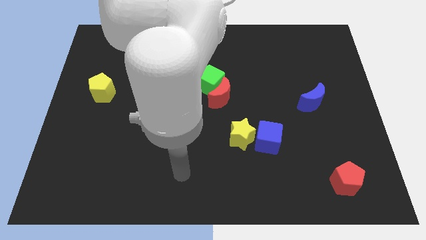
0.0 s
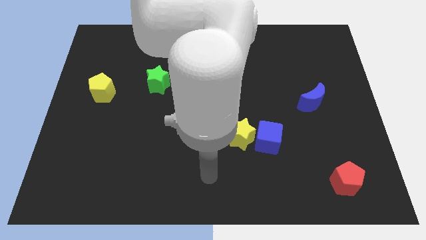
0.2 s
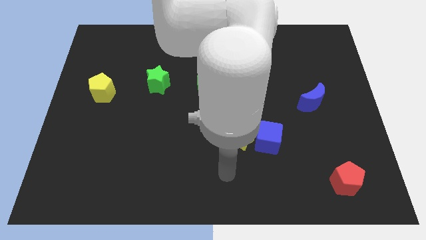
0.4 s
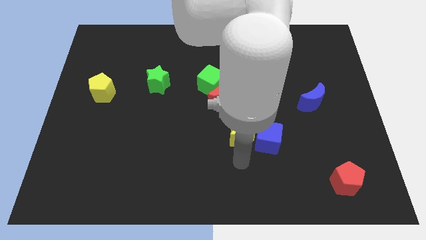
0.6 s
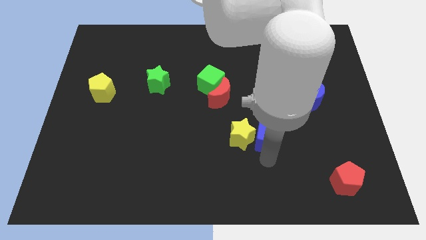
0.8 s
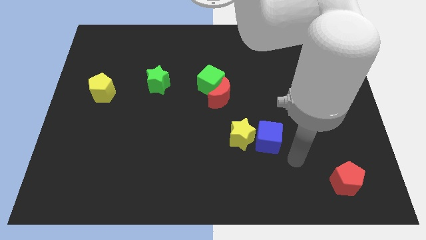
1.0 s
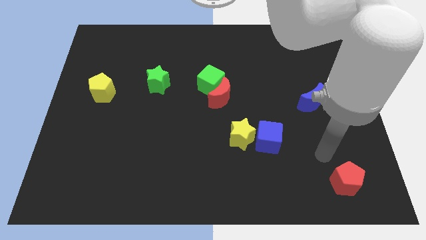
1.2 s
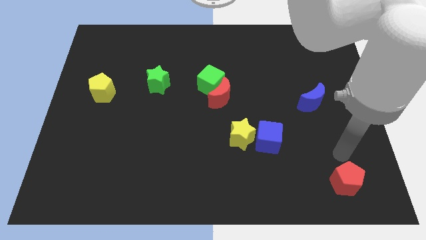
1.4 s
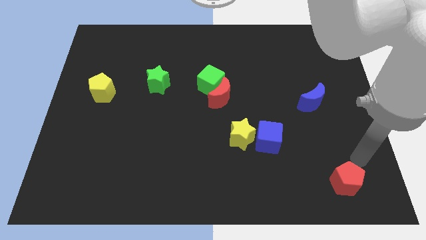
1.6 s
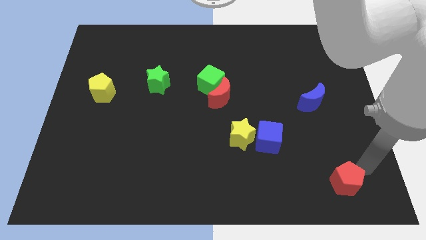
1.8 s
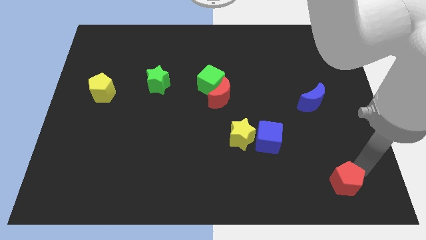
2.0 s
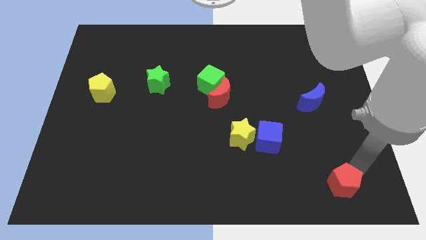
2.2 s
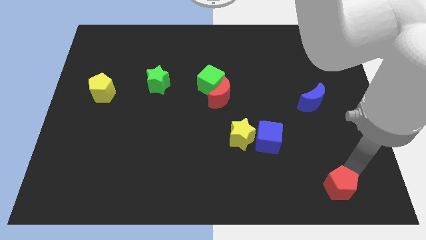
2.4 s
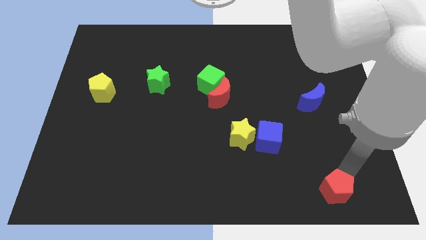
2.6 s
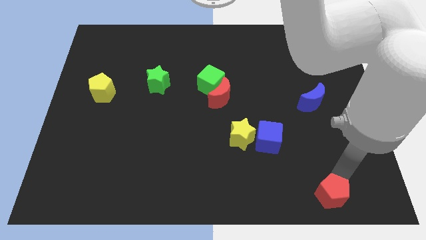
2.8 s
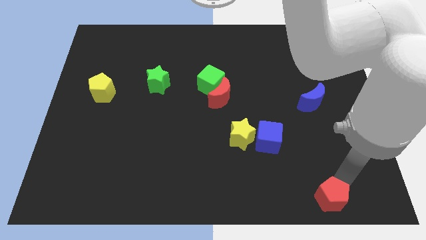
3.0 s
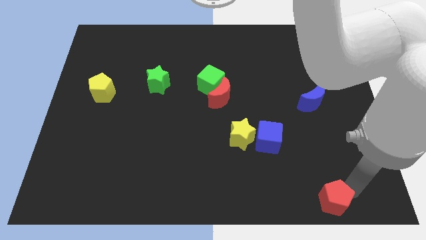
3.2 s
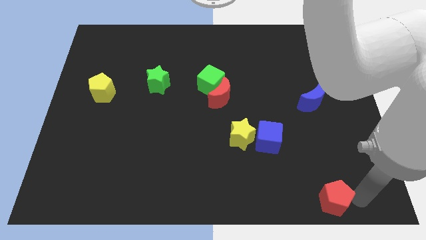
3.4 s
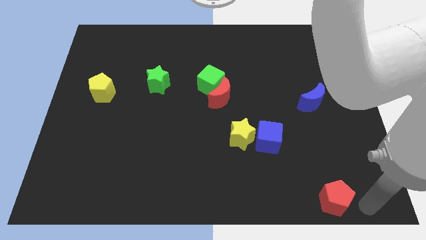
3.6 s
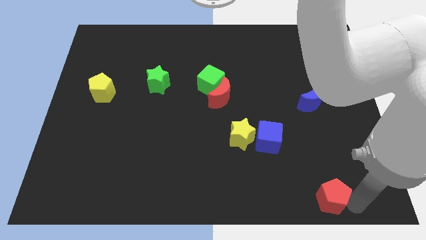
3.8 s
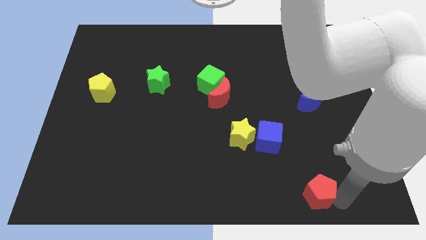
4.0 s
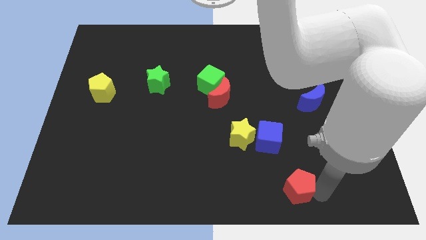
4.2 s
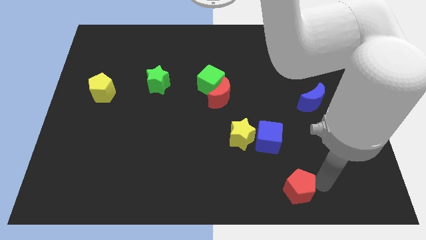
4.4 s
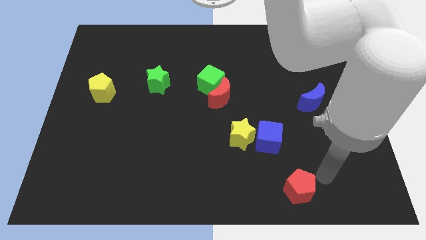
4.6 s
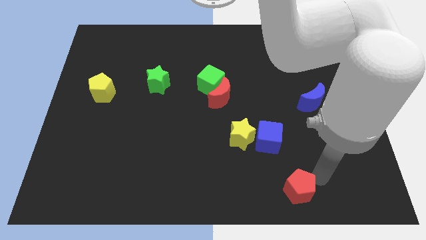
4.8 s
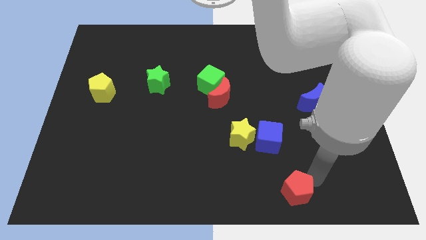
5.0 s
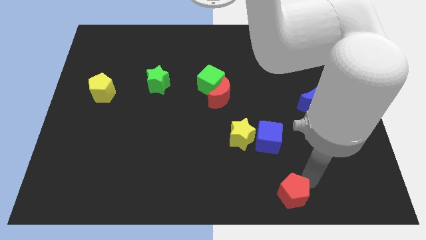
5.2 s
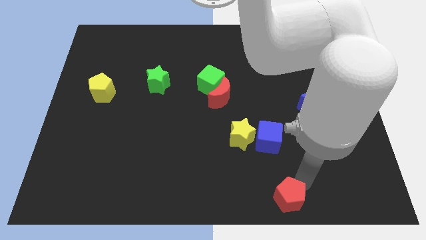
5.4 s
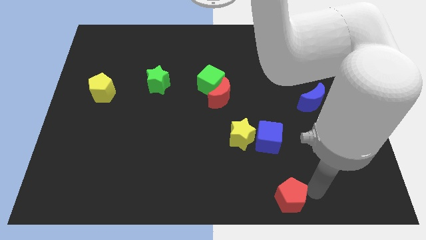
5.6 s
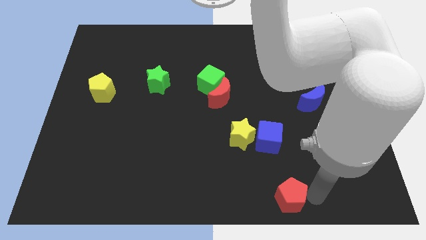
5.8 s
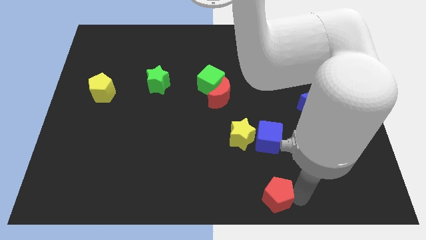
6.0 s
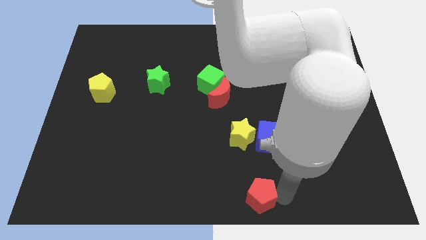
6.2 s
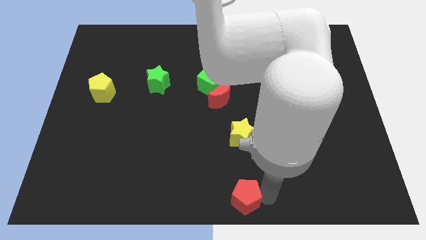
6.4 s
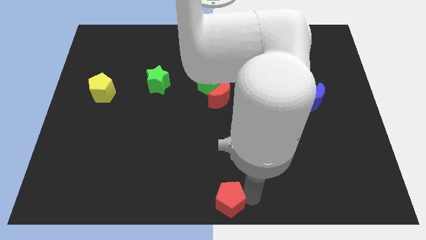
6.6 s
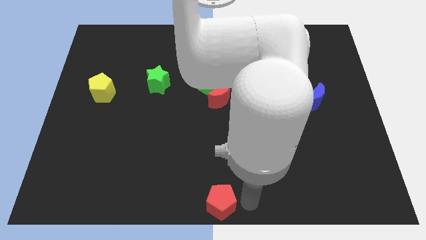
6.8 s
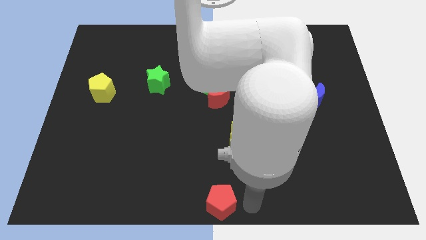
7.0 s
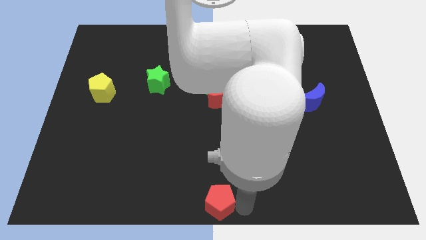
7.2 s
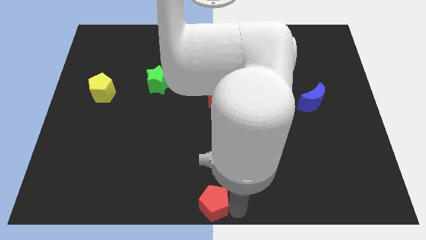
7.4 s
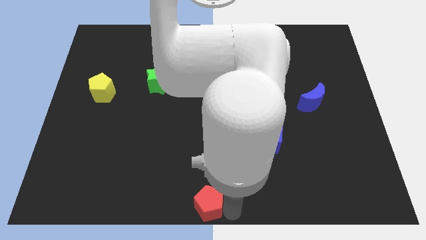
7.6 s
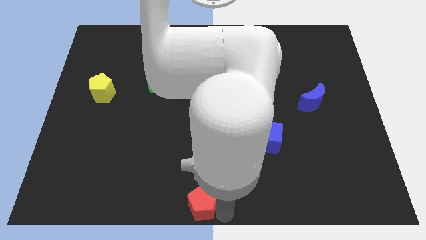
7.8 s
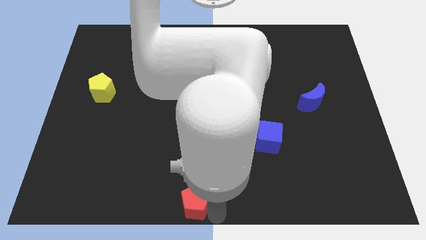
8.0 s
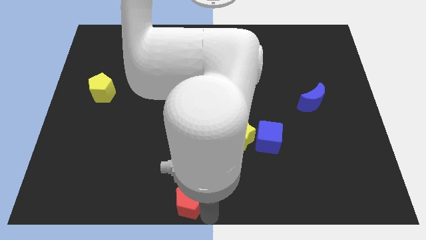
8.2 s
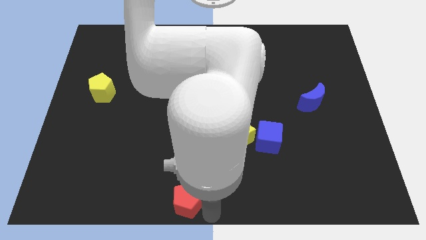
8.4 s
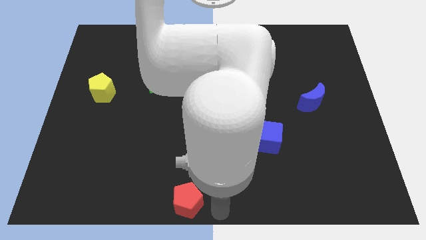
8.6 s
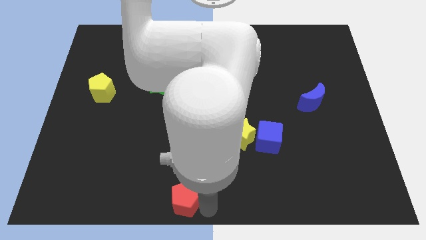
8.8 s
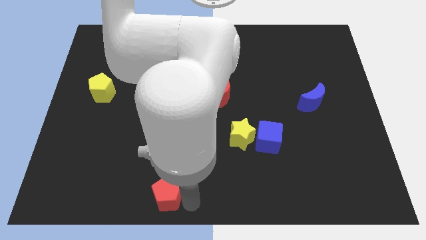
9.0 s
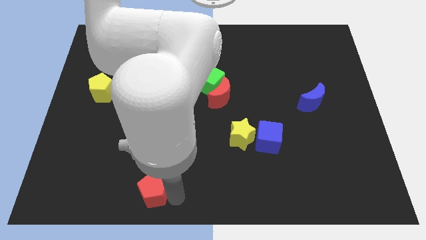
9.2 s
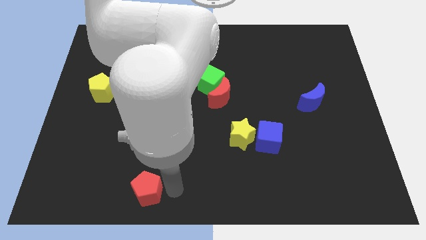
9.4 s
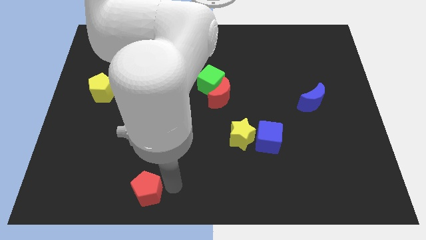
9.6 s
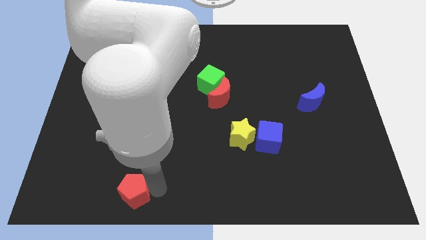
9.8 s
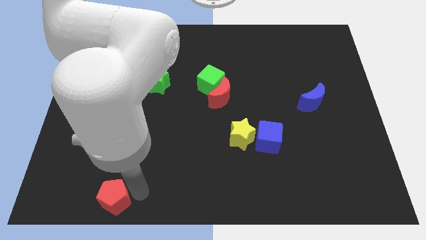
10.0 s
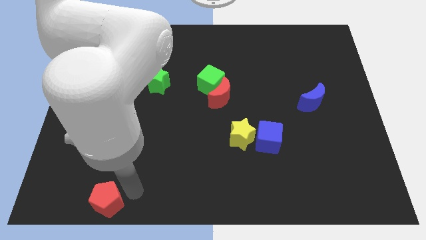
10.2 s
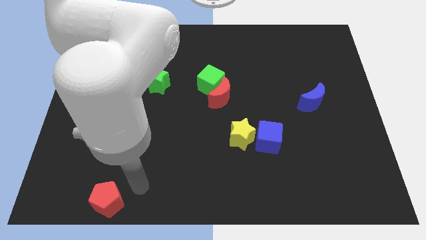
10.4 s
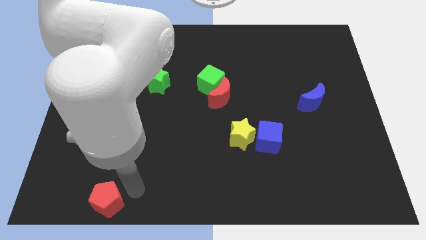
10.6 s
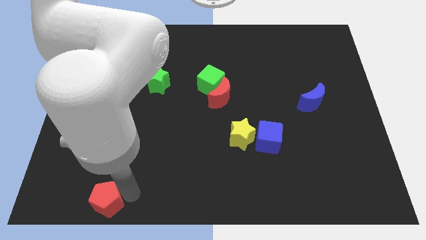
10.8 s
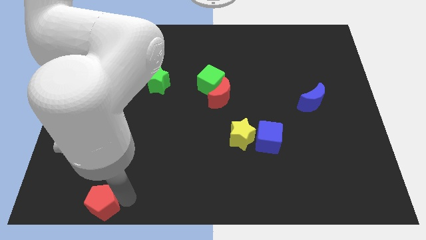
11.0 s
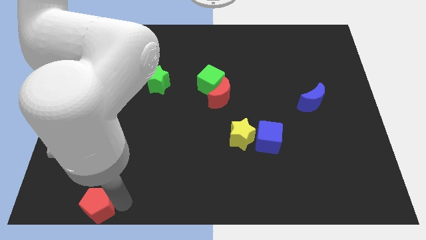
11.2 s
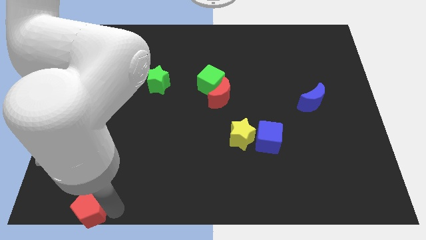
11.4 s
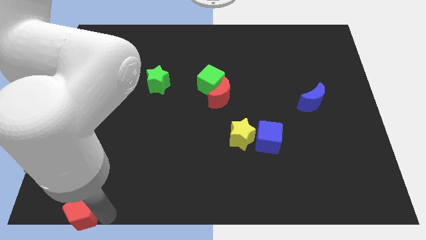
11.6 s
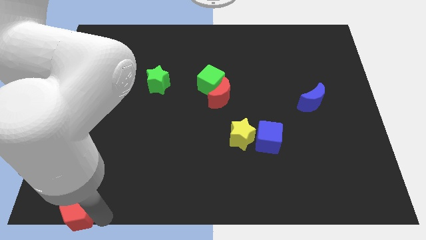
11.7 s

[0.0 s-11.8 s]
slide the red pentagon to the lower left corner
